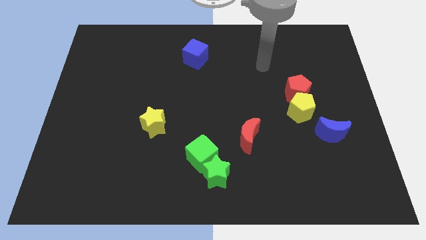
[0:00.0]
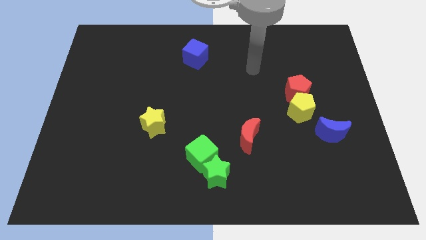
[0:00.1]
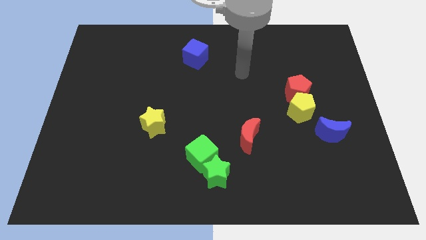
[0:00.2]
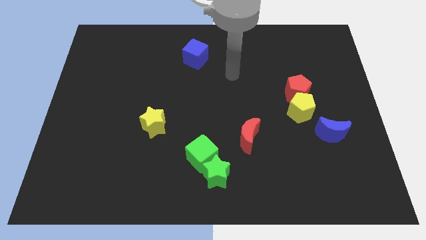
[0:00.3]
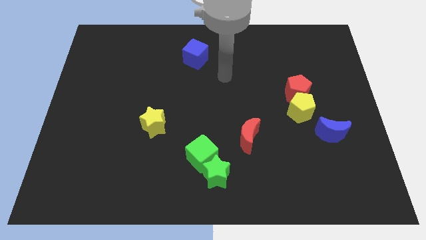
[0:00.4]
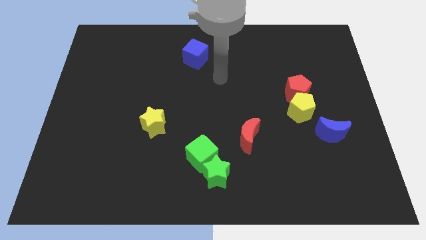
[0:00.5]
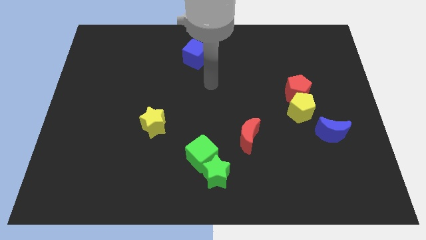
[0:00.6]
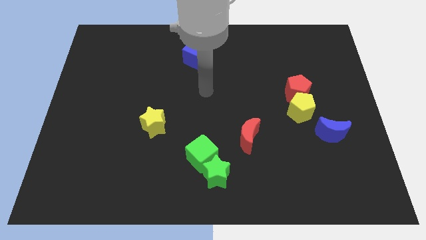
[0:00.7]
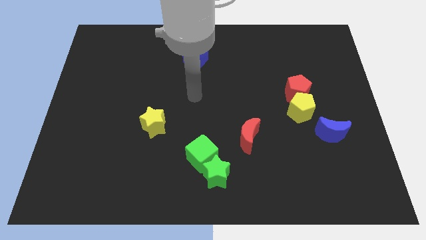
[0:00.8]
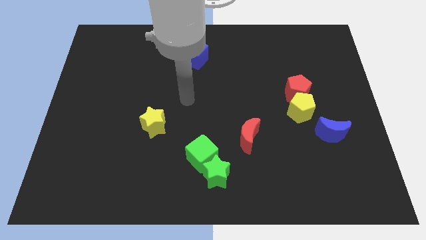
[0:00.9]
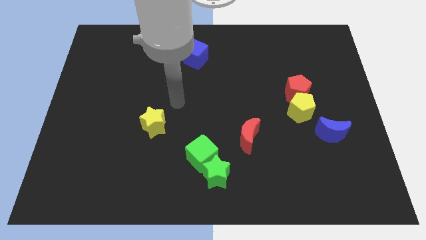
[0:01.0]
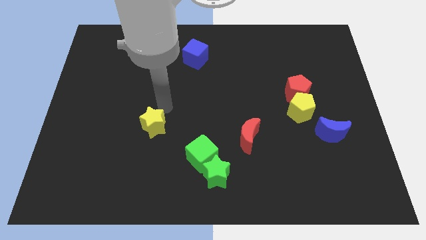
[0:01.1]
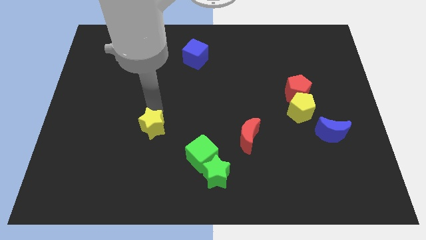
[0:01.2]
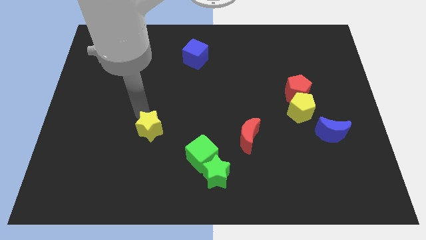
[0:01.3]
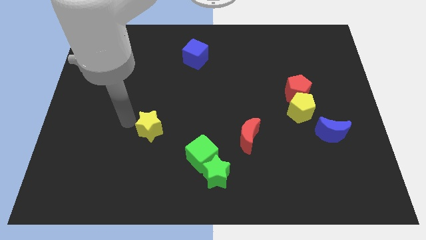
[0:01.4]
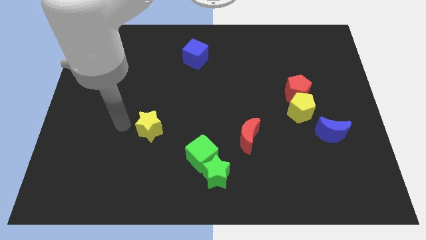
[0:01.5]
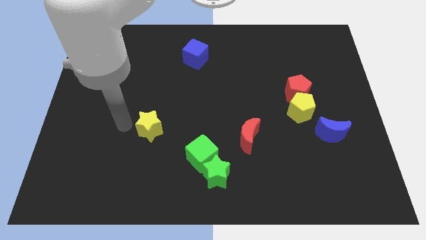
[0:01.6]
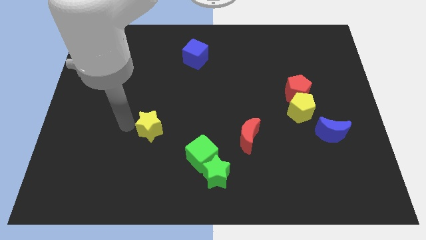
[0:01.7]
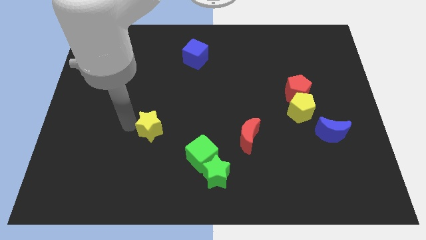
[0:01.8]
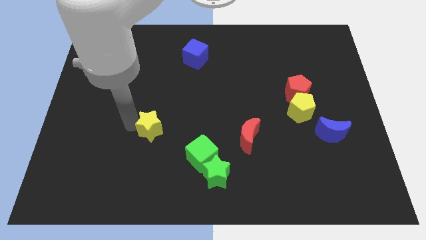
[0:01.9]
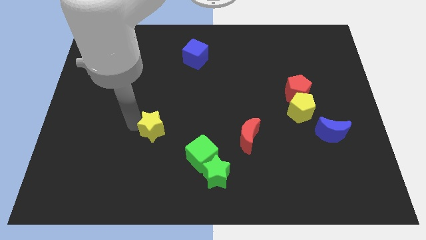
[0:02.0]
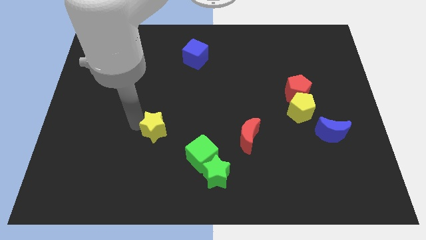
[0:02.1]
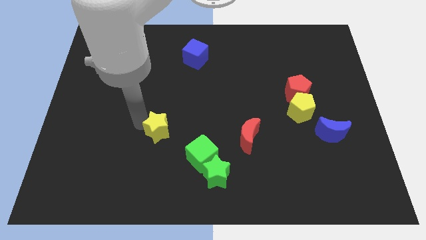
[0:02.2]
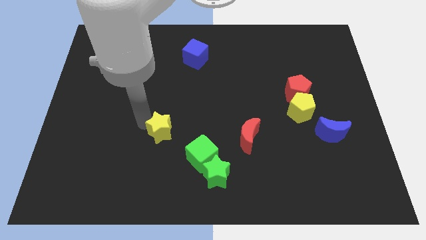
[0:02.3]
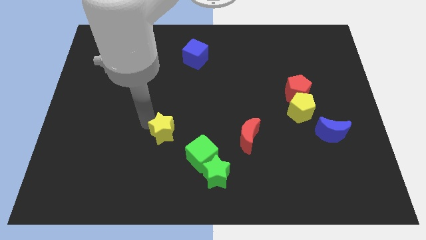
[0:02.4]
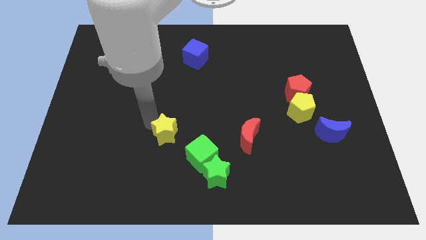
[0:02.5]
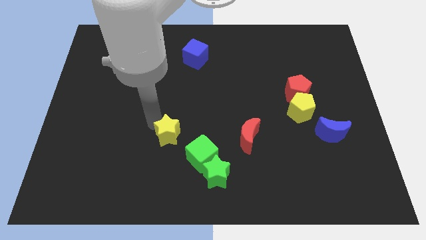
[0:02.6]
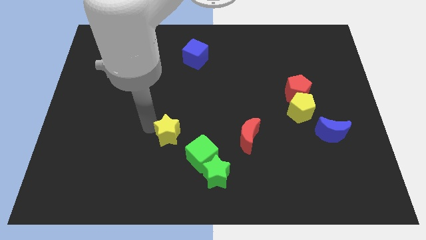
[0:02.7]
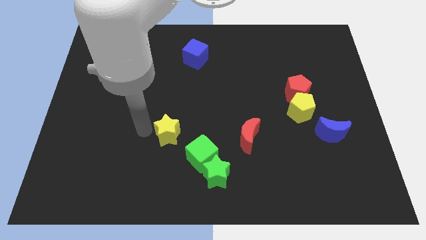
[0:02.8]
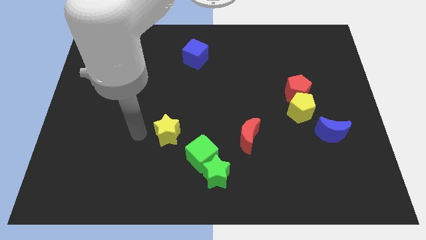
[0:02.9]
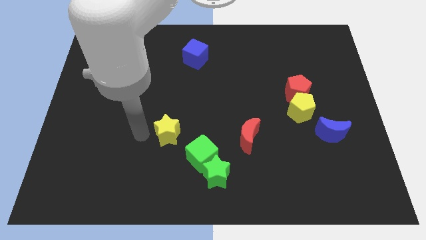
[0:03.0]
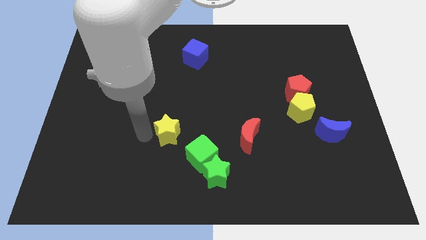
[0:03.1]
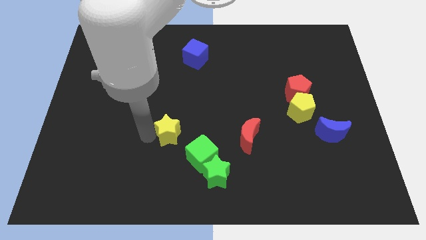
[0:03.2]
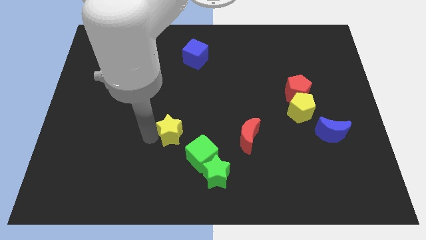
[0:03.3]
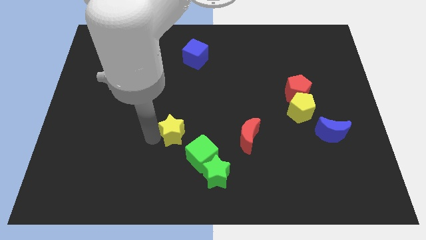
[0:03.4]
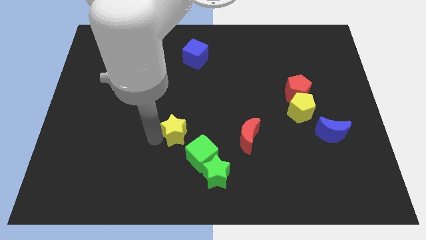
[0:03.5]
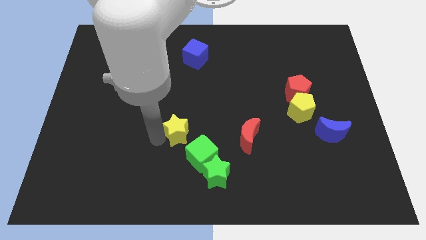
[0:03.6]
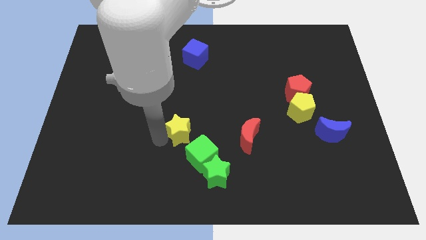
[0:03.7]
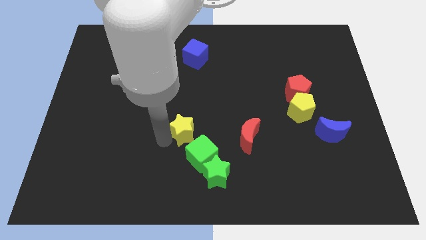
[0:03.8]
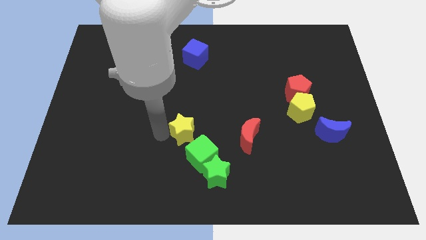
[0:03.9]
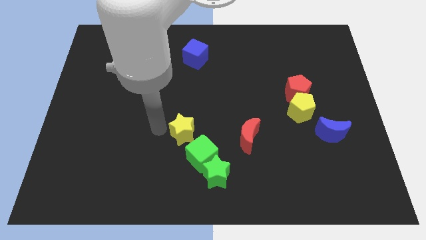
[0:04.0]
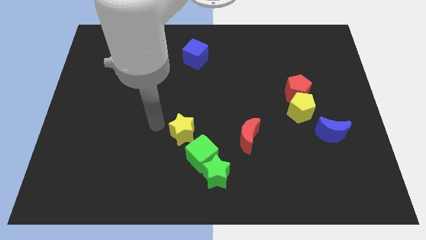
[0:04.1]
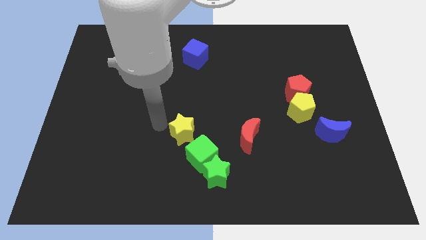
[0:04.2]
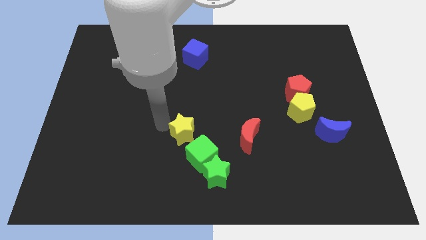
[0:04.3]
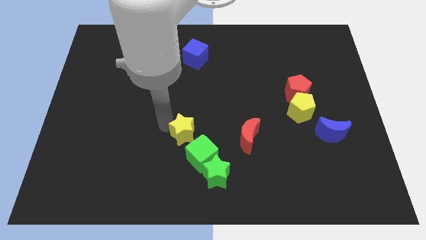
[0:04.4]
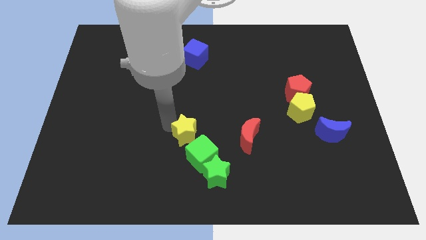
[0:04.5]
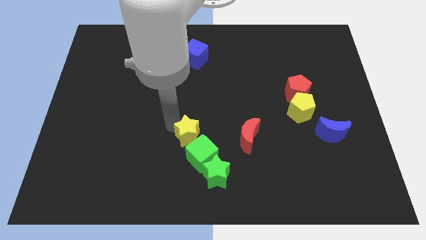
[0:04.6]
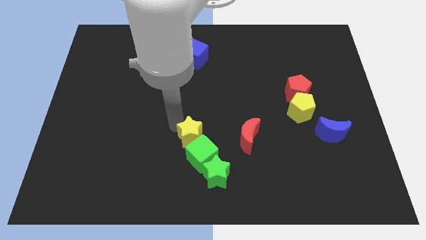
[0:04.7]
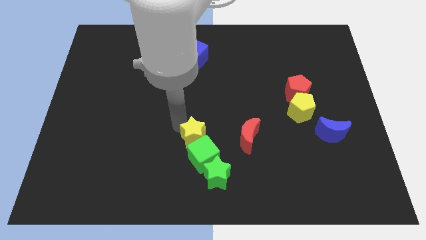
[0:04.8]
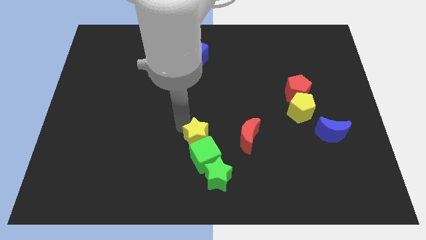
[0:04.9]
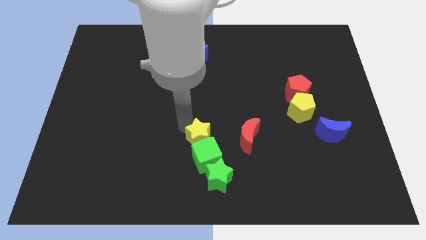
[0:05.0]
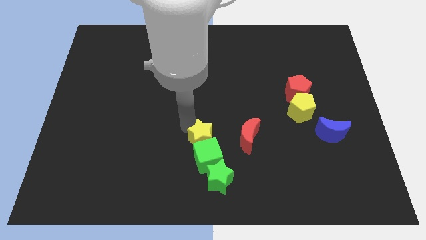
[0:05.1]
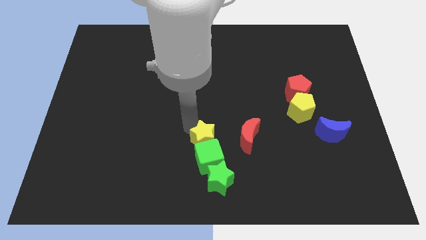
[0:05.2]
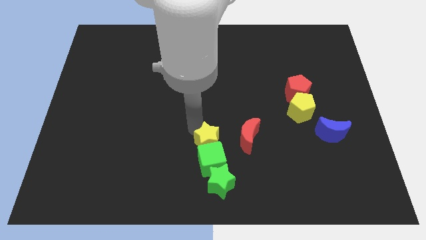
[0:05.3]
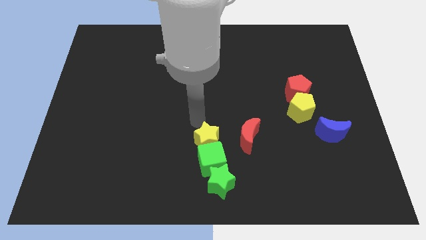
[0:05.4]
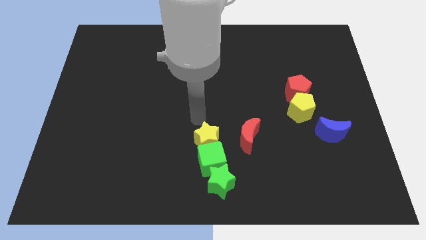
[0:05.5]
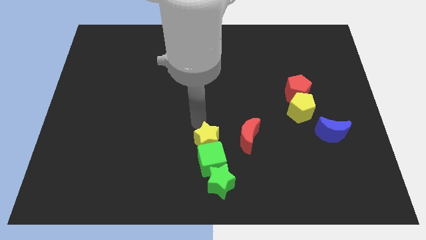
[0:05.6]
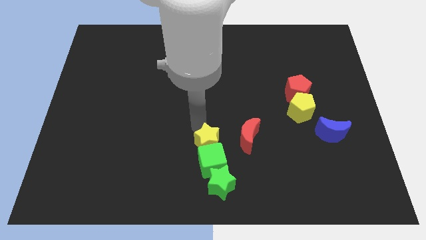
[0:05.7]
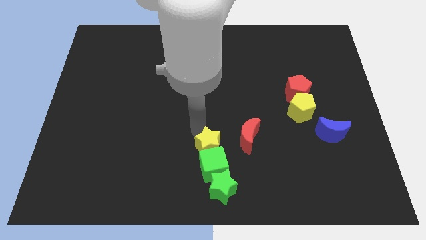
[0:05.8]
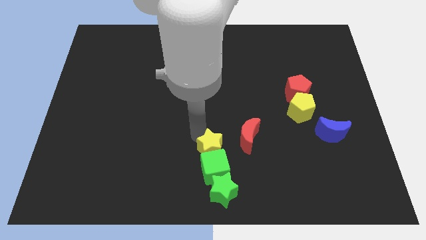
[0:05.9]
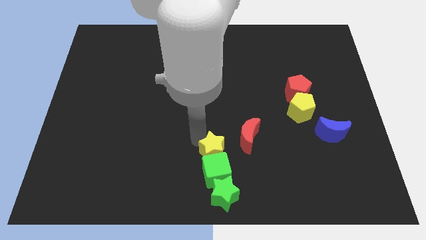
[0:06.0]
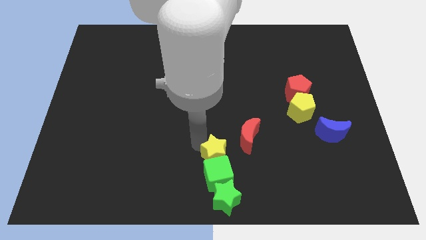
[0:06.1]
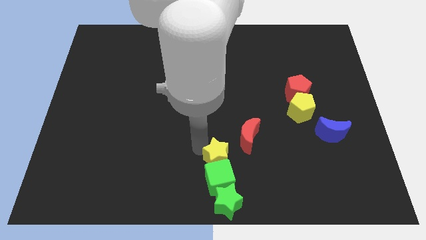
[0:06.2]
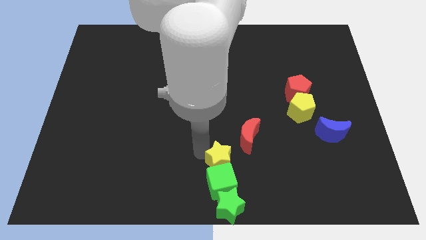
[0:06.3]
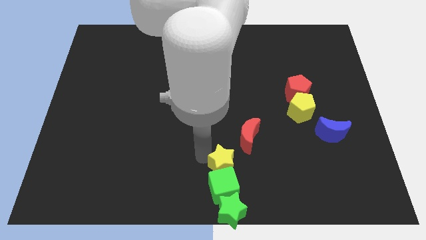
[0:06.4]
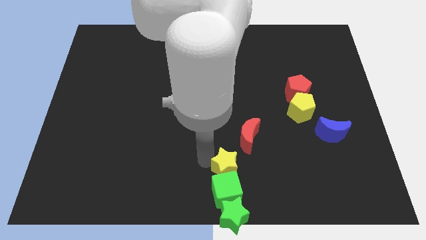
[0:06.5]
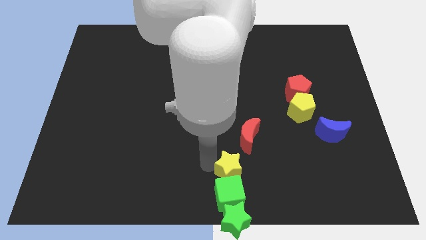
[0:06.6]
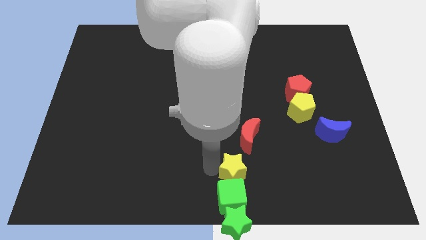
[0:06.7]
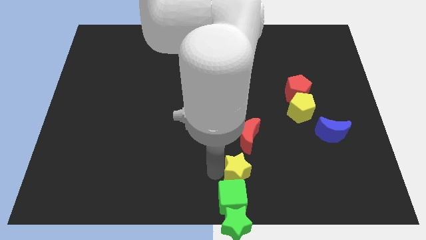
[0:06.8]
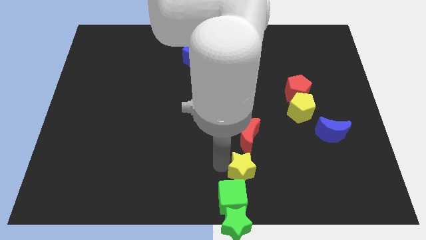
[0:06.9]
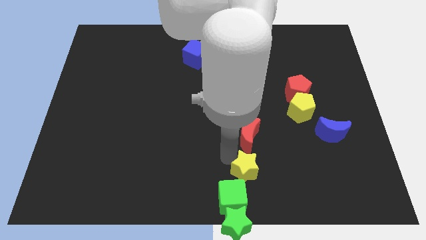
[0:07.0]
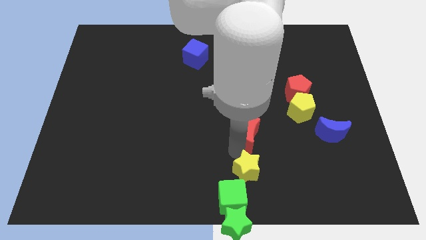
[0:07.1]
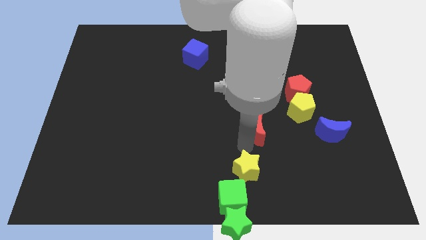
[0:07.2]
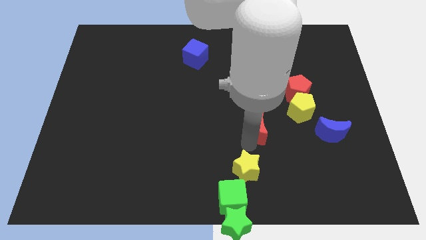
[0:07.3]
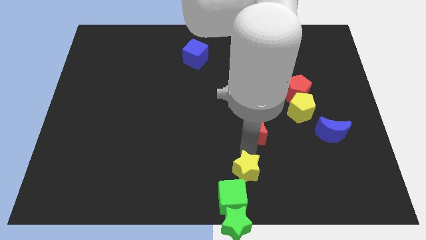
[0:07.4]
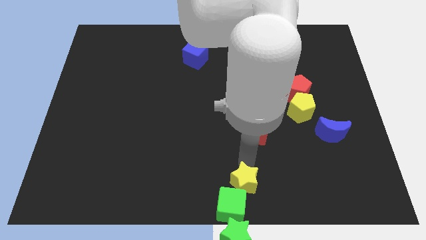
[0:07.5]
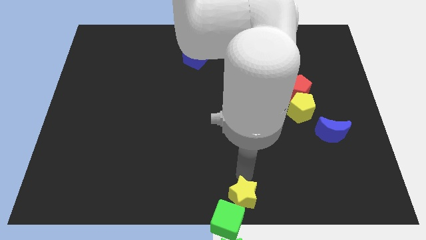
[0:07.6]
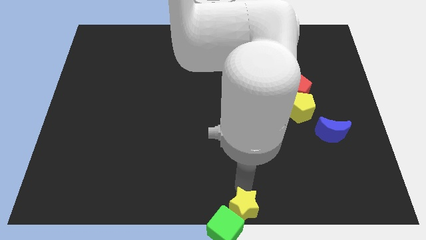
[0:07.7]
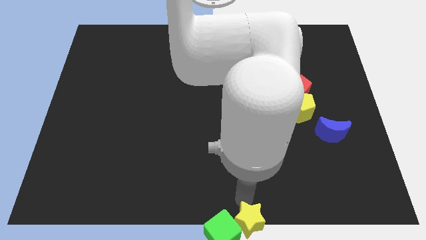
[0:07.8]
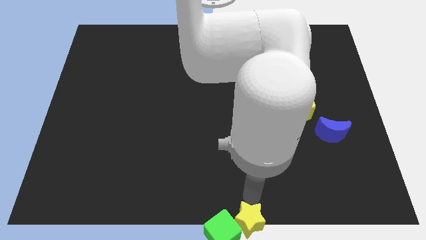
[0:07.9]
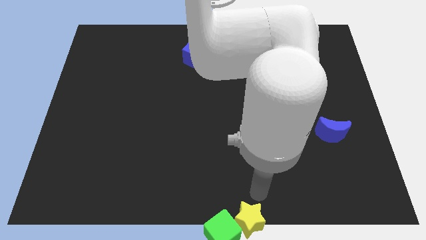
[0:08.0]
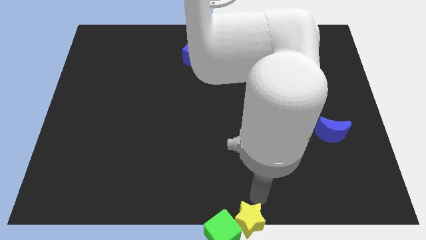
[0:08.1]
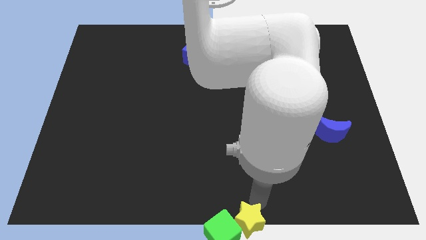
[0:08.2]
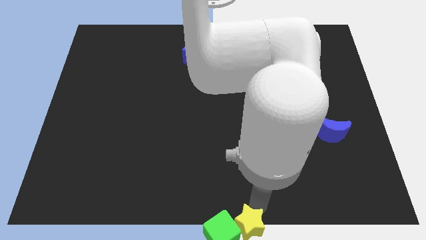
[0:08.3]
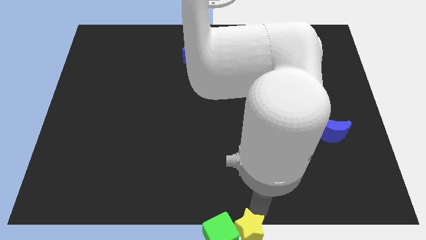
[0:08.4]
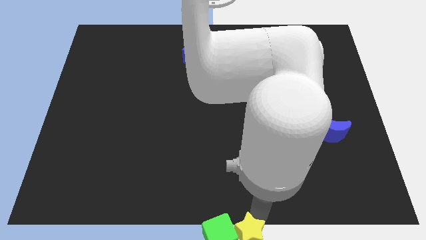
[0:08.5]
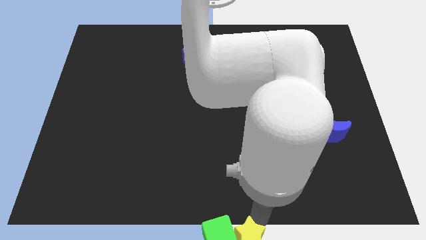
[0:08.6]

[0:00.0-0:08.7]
push the yellow star next to the green star
